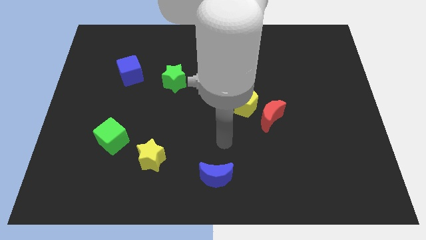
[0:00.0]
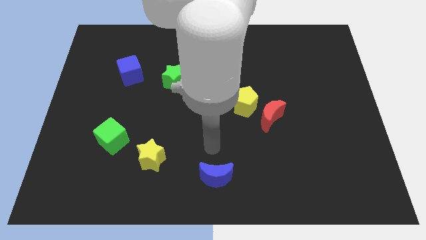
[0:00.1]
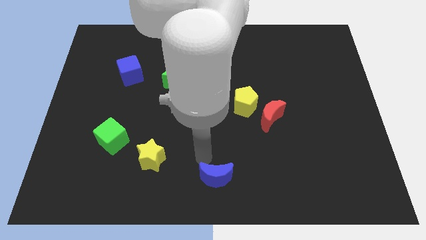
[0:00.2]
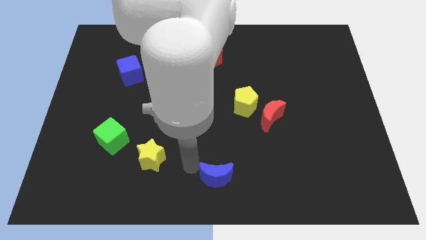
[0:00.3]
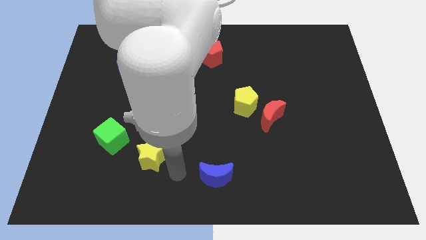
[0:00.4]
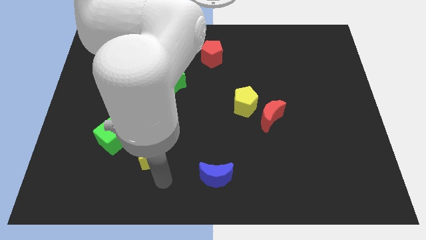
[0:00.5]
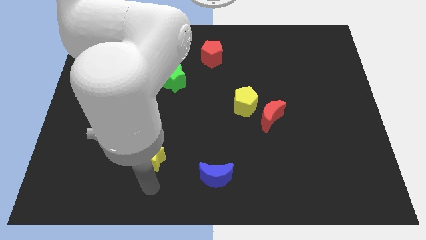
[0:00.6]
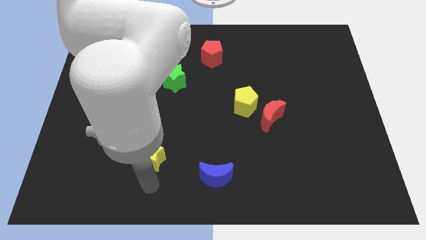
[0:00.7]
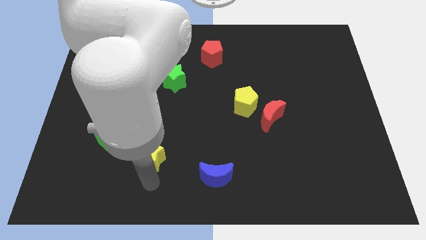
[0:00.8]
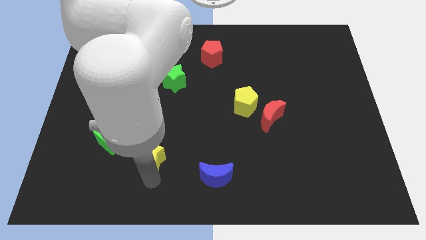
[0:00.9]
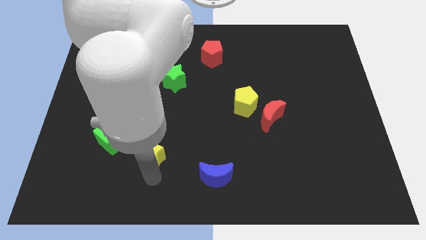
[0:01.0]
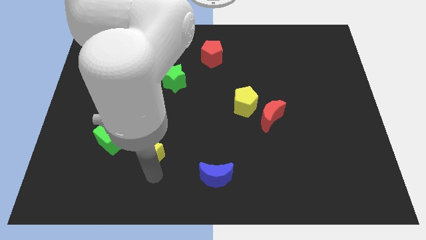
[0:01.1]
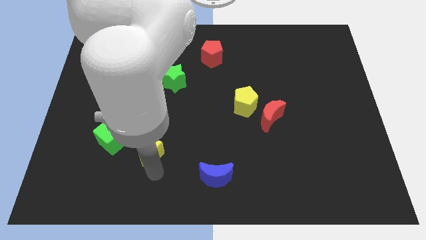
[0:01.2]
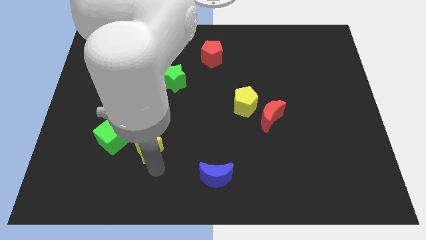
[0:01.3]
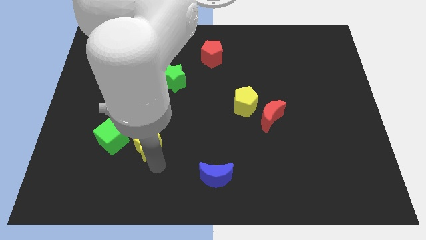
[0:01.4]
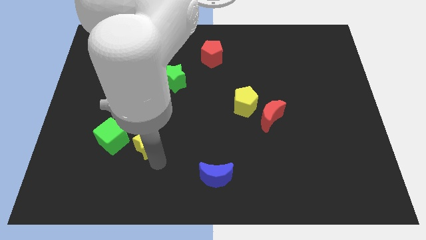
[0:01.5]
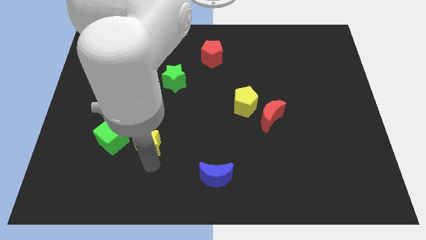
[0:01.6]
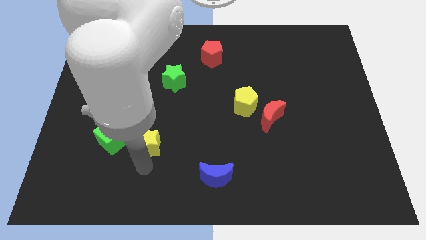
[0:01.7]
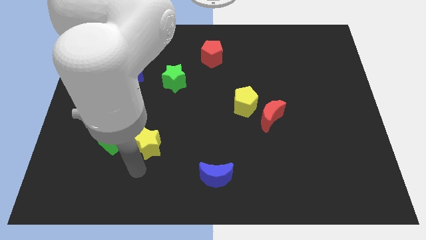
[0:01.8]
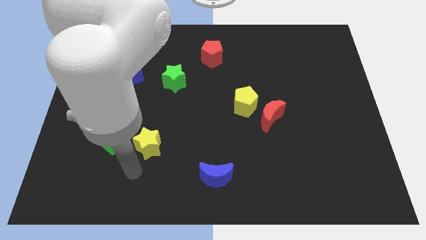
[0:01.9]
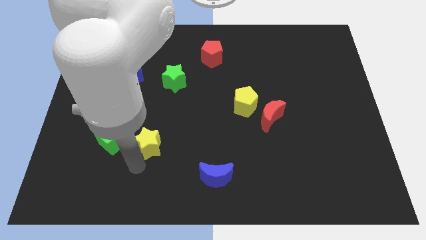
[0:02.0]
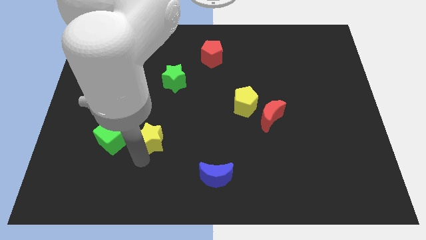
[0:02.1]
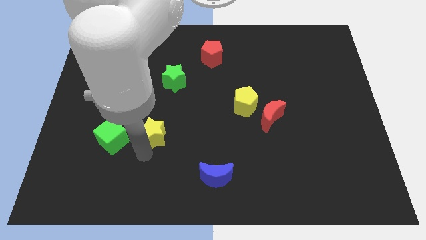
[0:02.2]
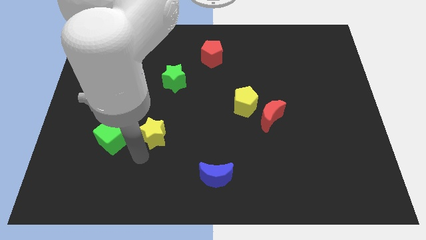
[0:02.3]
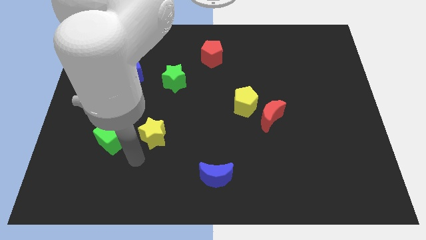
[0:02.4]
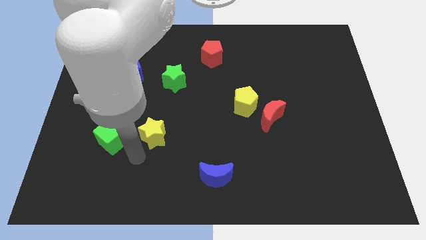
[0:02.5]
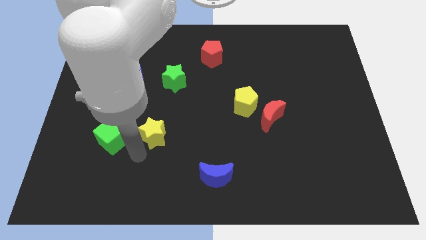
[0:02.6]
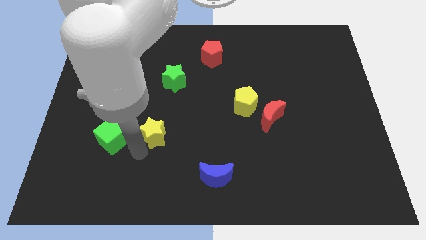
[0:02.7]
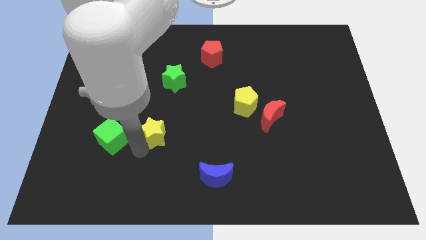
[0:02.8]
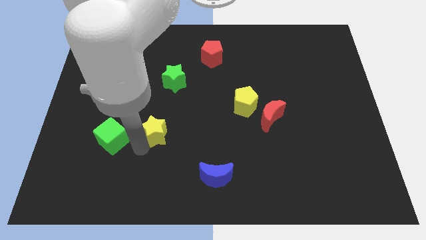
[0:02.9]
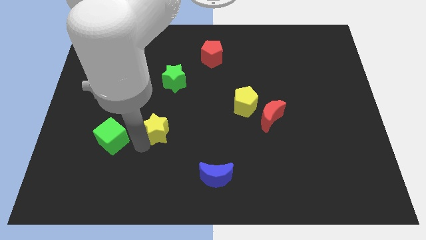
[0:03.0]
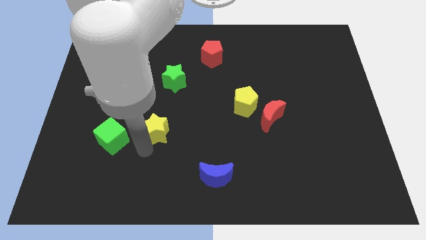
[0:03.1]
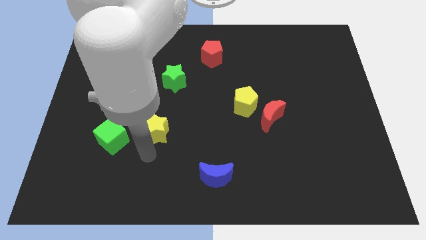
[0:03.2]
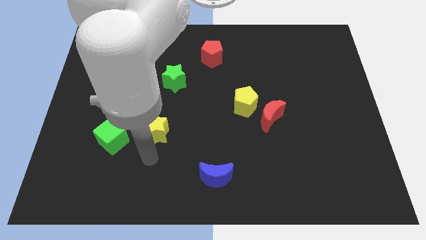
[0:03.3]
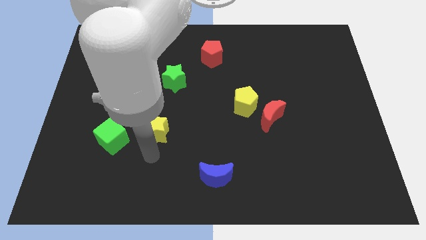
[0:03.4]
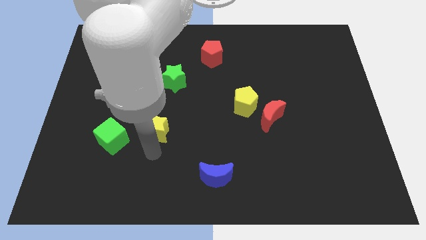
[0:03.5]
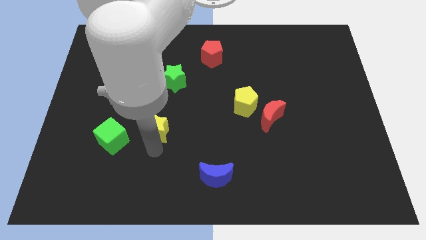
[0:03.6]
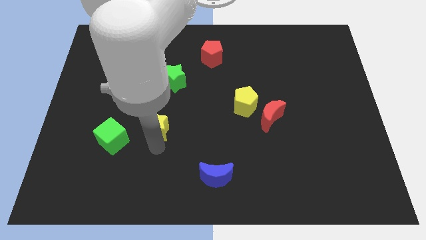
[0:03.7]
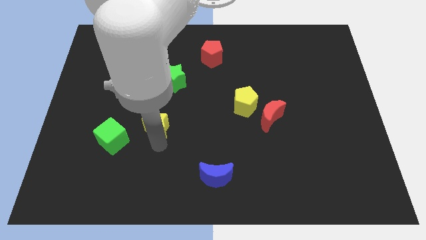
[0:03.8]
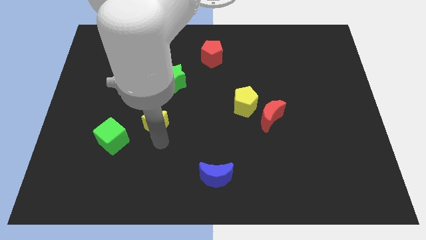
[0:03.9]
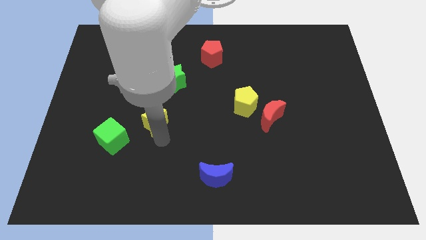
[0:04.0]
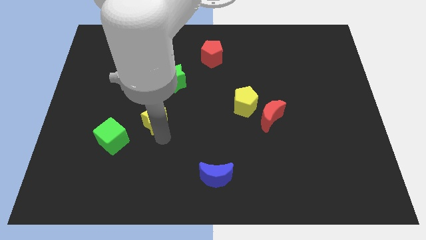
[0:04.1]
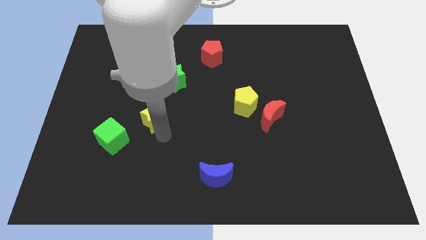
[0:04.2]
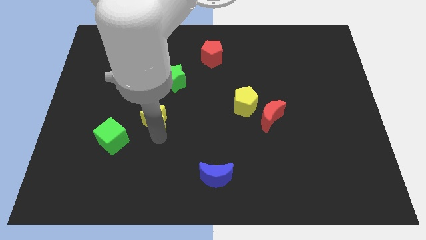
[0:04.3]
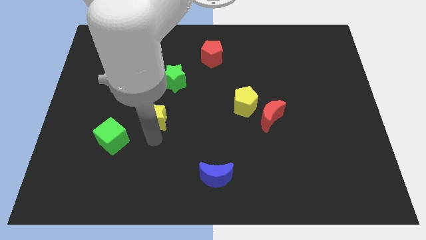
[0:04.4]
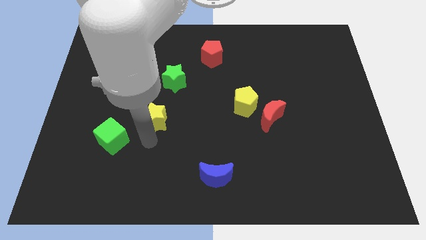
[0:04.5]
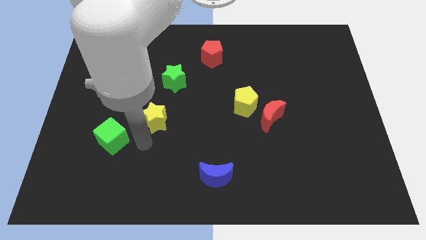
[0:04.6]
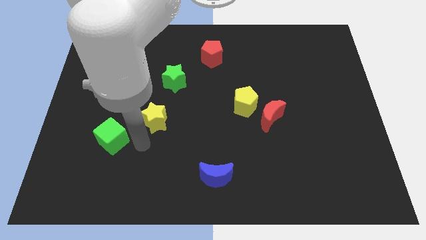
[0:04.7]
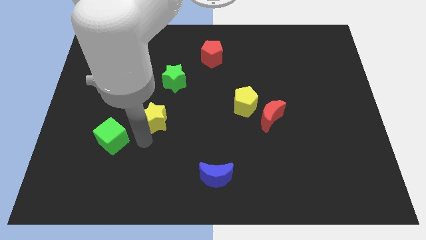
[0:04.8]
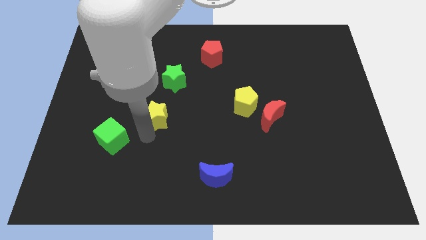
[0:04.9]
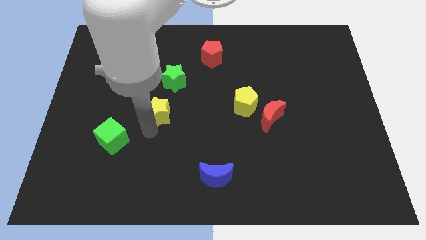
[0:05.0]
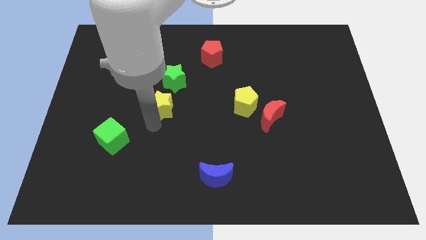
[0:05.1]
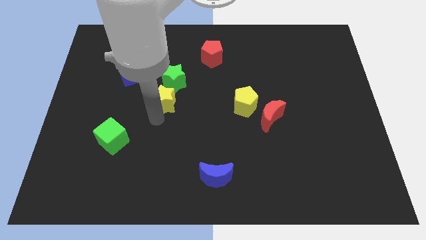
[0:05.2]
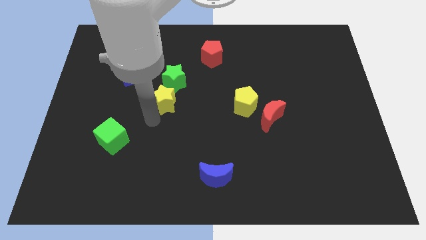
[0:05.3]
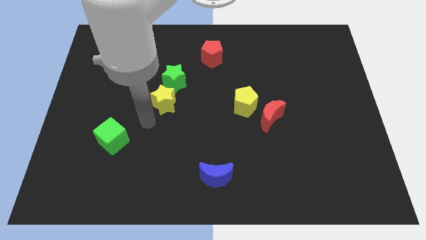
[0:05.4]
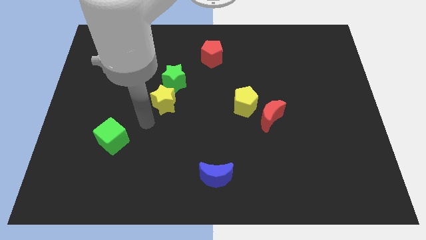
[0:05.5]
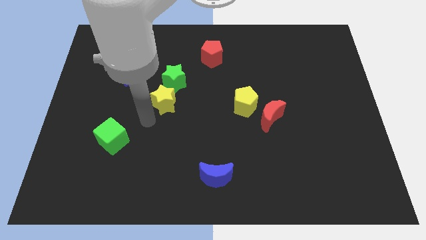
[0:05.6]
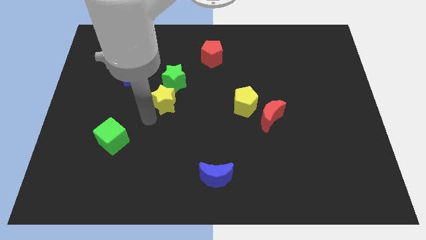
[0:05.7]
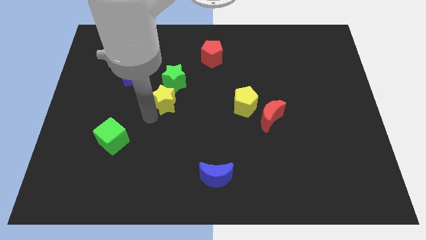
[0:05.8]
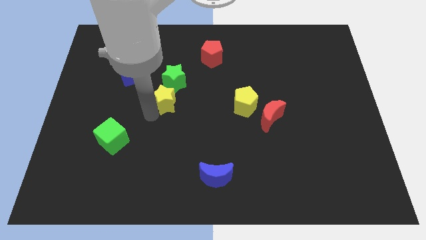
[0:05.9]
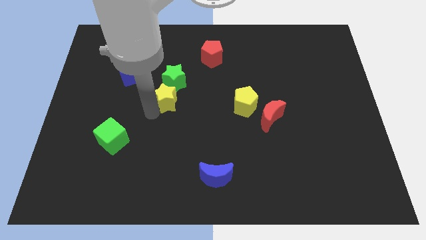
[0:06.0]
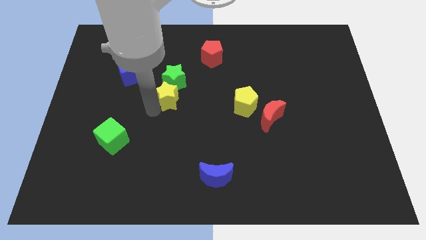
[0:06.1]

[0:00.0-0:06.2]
push the yellow star towards the green star

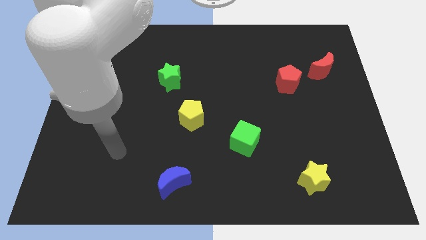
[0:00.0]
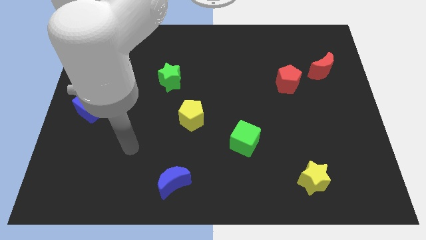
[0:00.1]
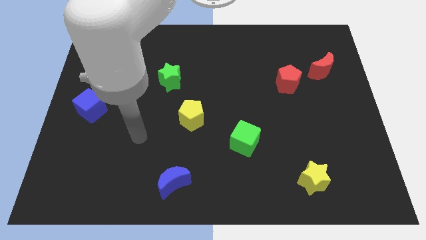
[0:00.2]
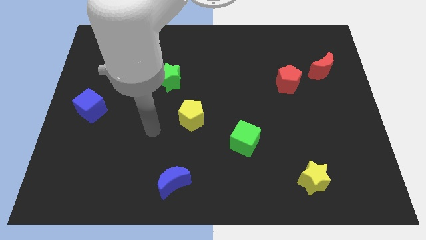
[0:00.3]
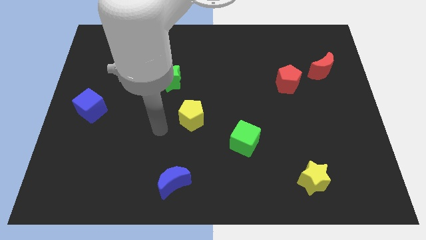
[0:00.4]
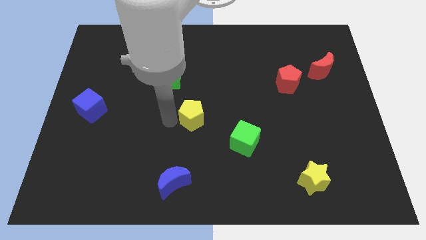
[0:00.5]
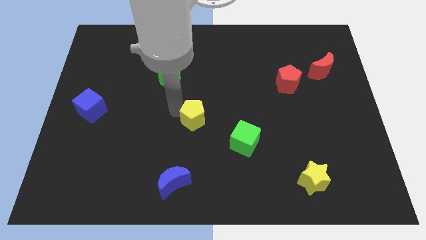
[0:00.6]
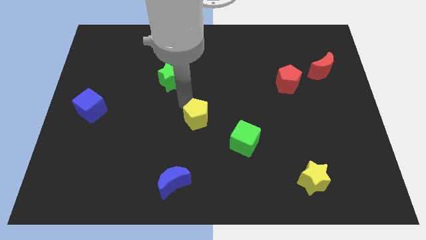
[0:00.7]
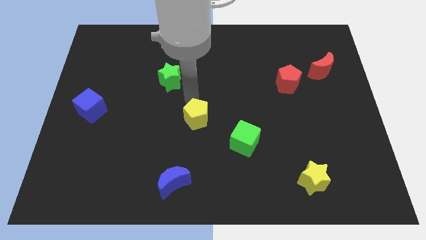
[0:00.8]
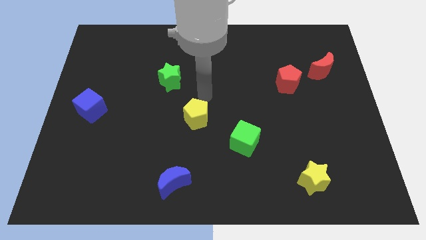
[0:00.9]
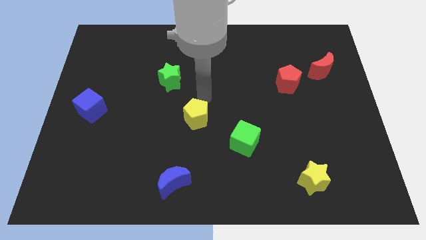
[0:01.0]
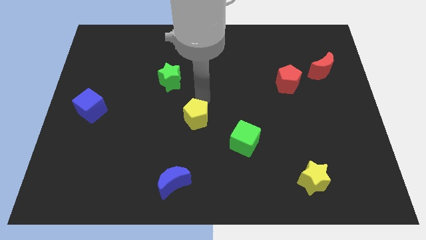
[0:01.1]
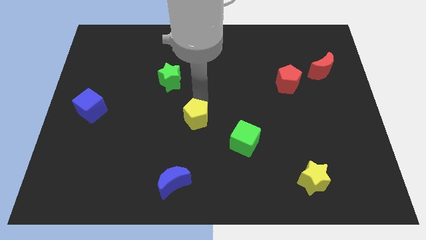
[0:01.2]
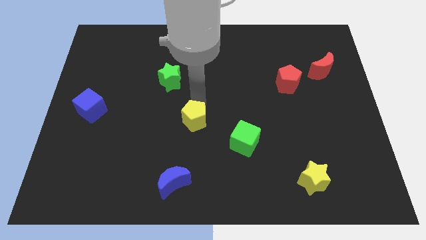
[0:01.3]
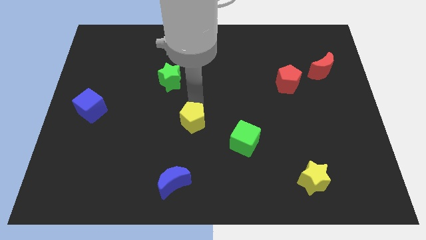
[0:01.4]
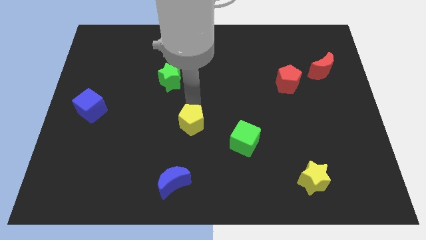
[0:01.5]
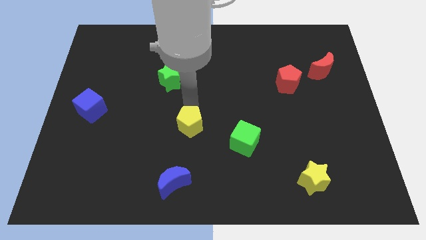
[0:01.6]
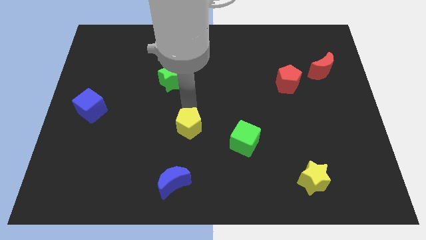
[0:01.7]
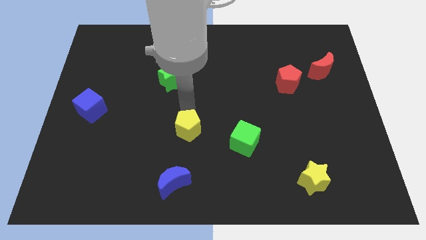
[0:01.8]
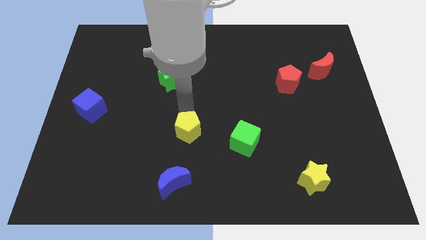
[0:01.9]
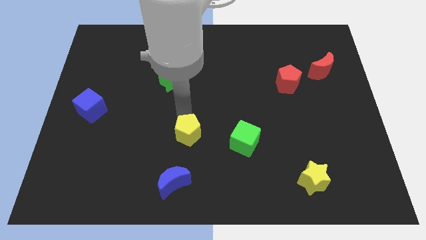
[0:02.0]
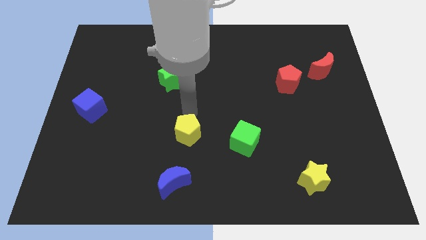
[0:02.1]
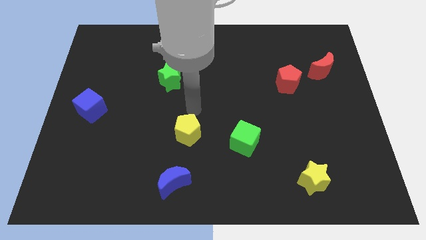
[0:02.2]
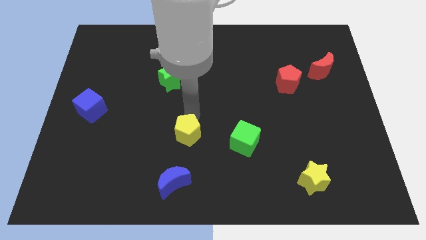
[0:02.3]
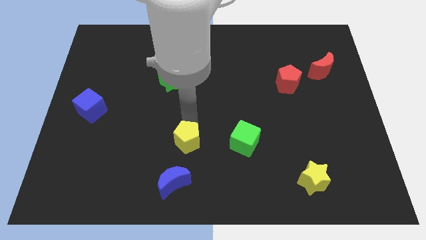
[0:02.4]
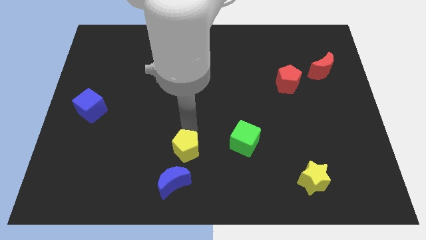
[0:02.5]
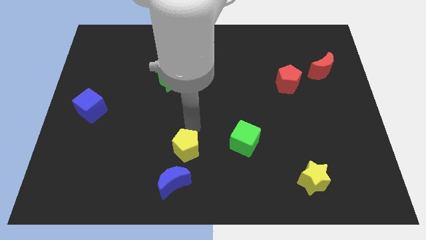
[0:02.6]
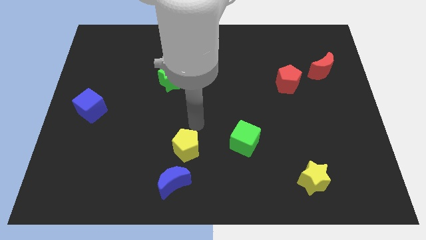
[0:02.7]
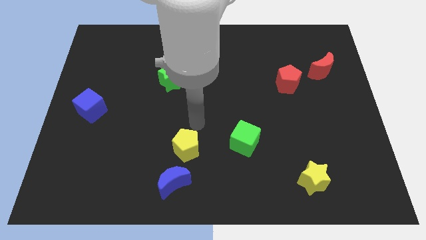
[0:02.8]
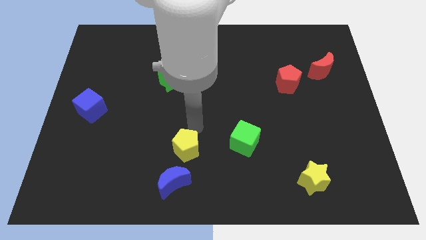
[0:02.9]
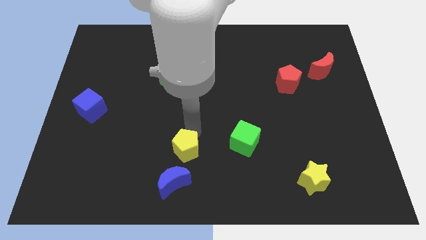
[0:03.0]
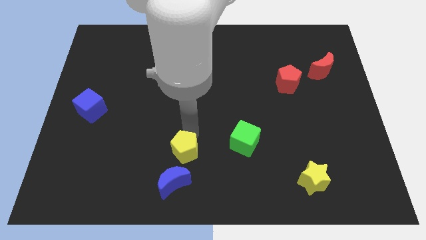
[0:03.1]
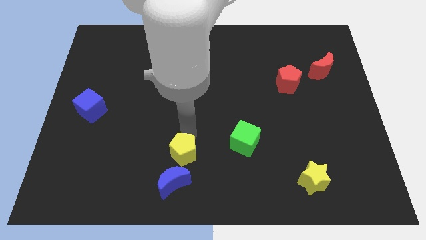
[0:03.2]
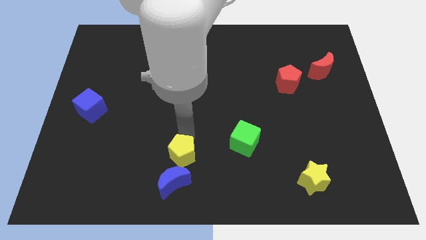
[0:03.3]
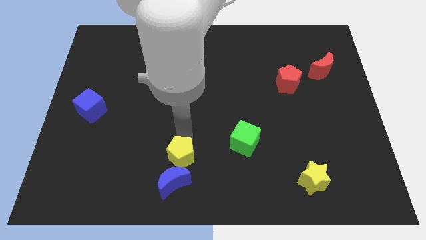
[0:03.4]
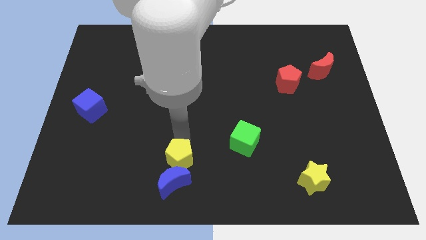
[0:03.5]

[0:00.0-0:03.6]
put the yellow pentagon to the blue moon
